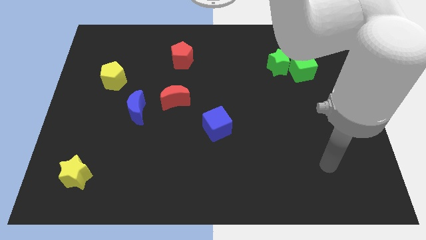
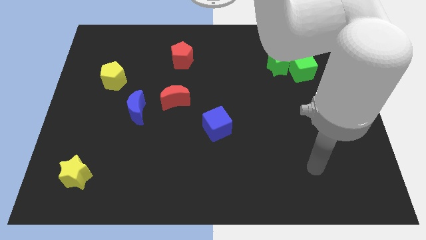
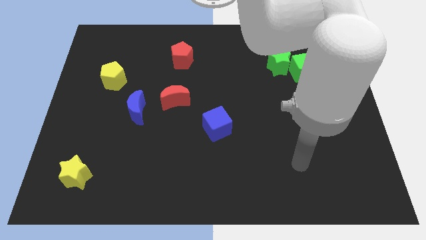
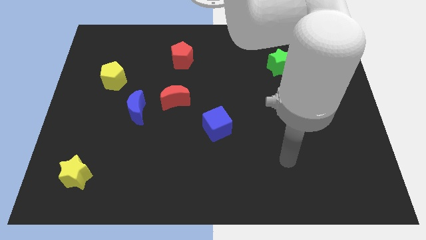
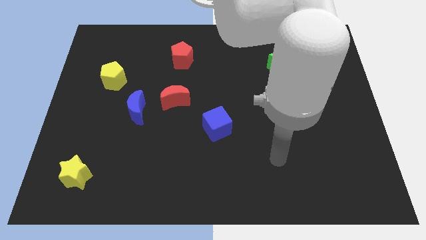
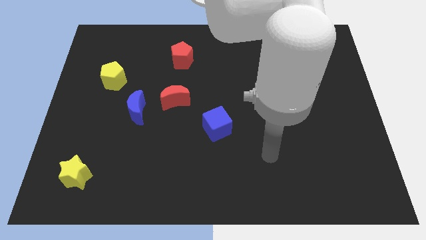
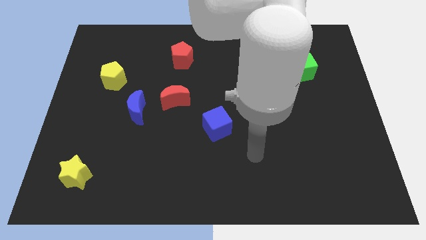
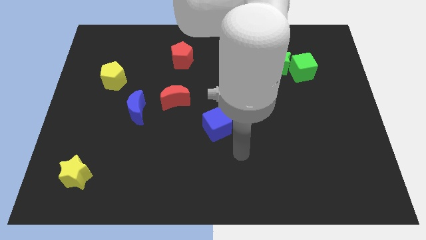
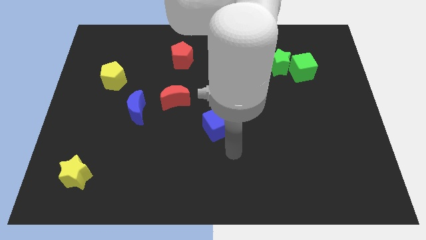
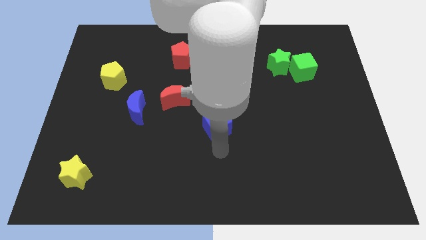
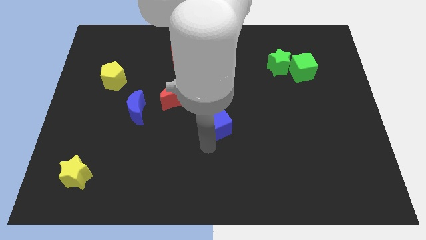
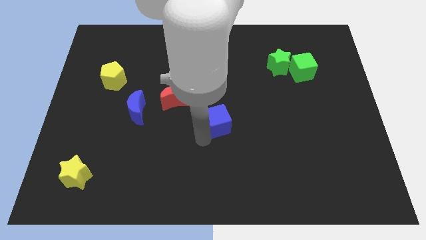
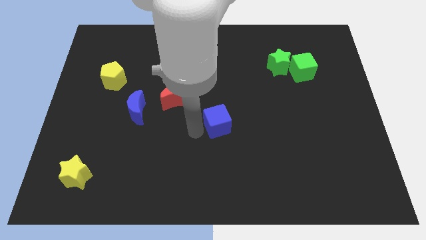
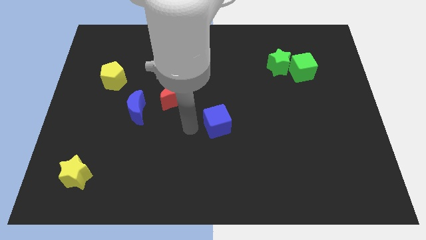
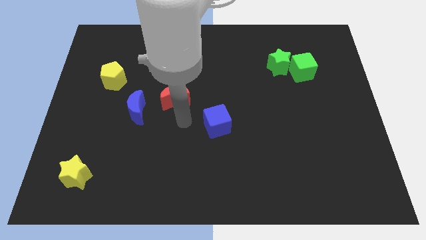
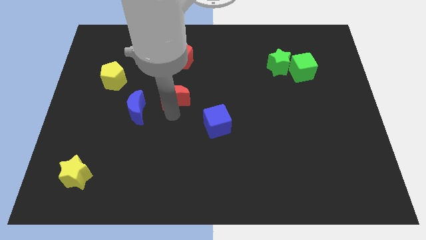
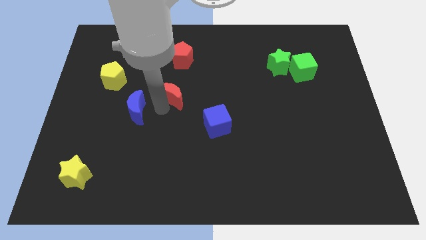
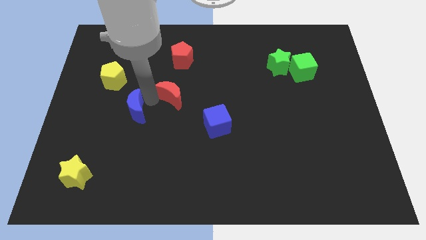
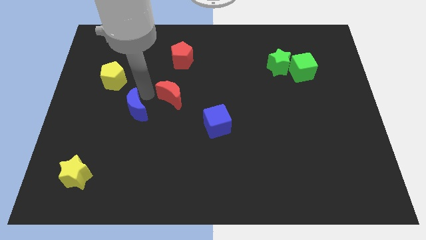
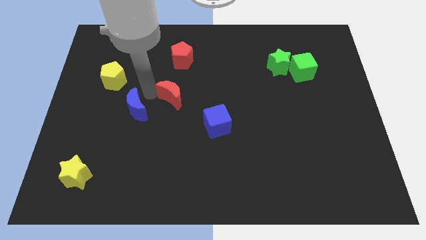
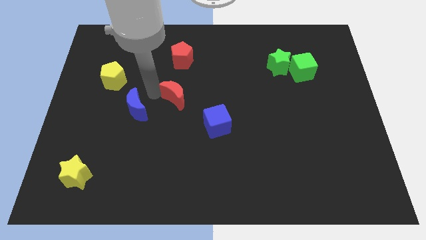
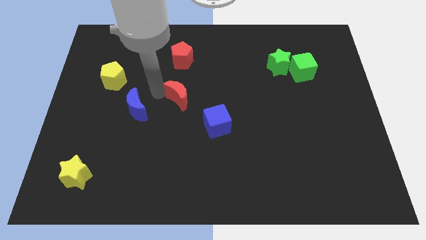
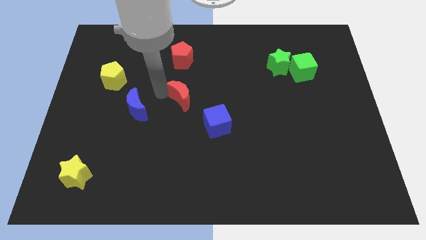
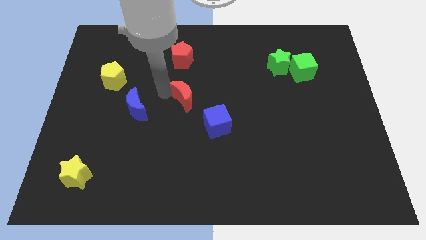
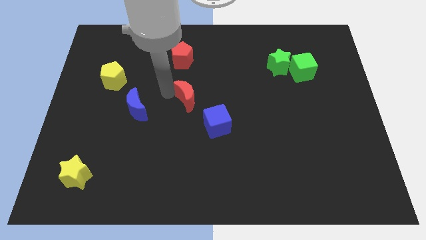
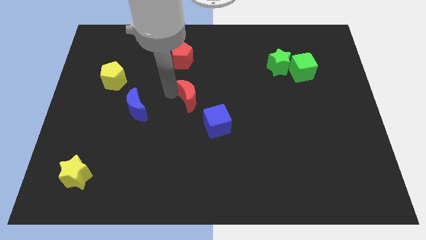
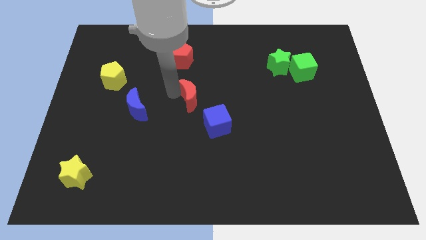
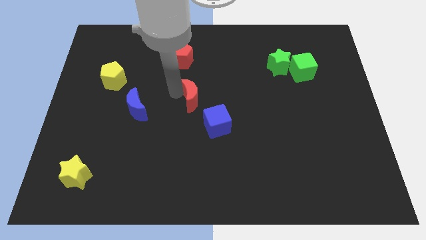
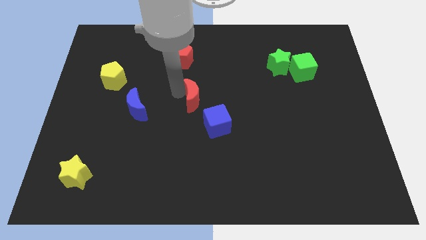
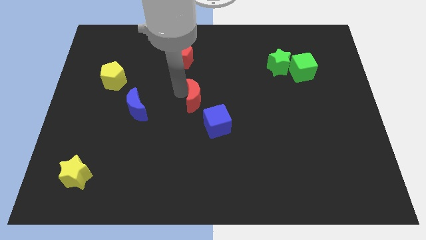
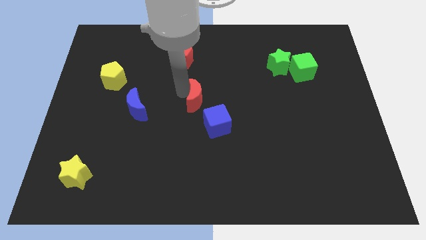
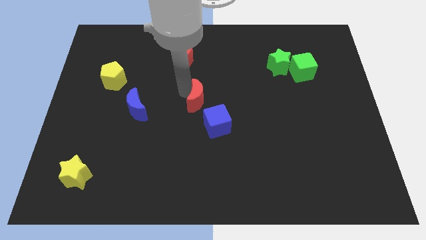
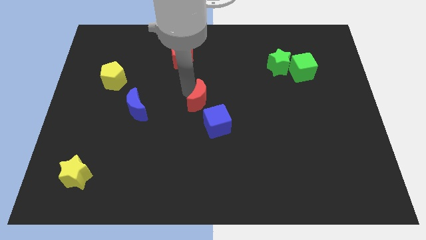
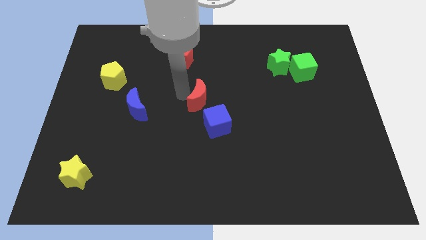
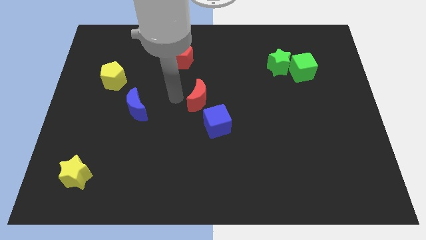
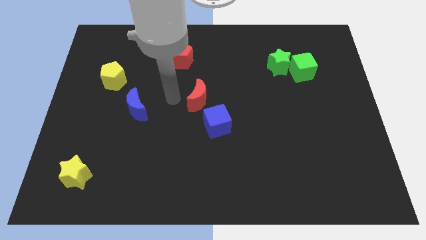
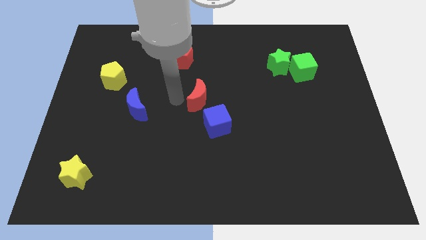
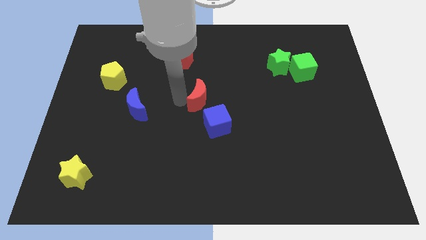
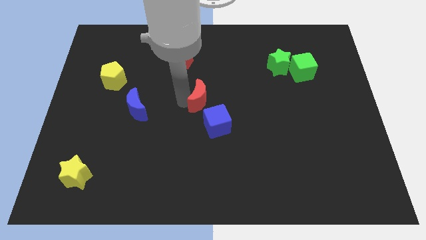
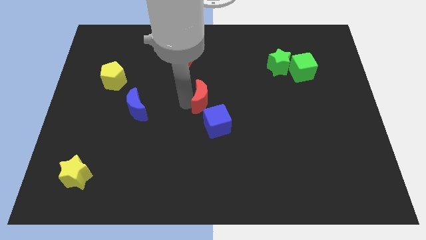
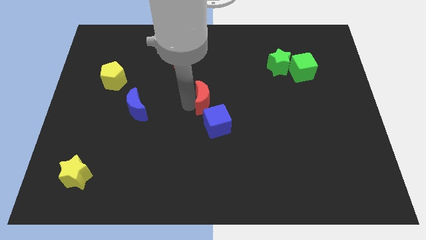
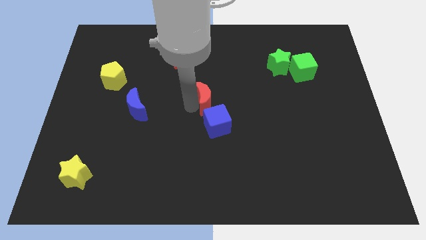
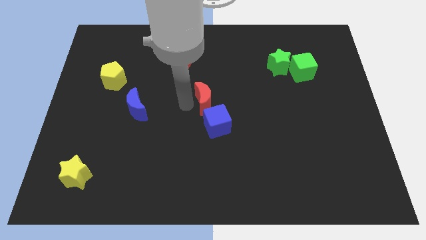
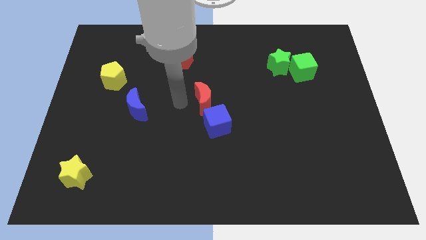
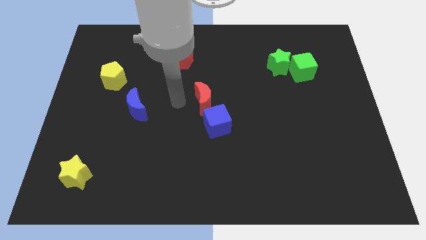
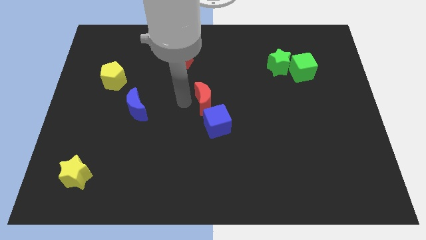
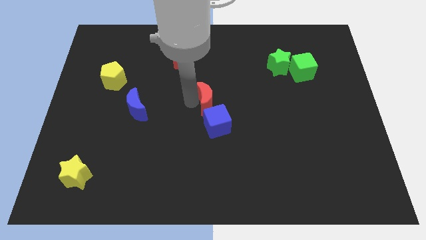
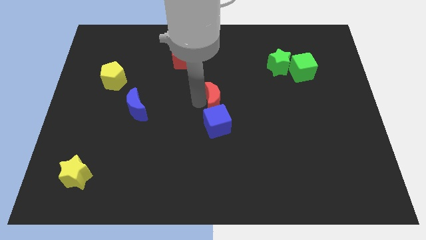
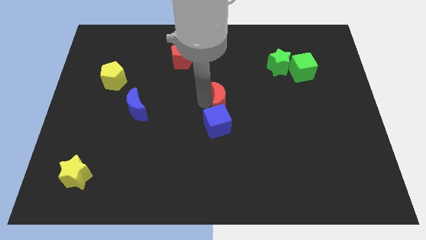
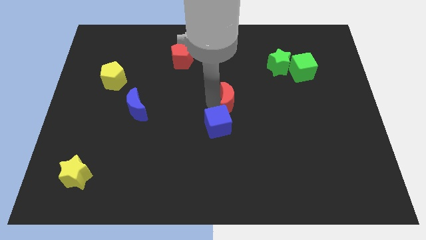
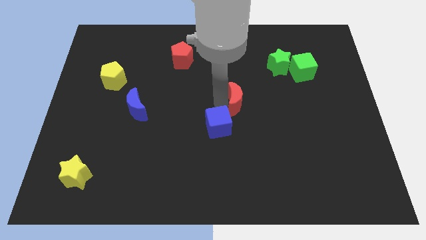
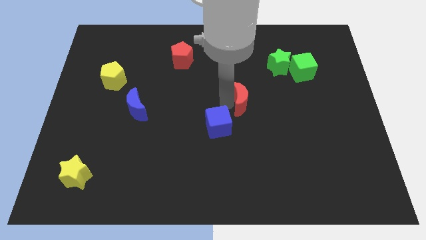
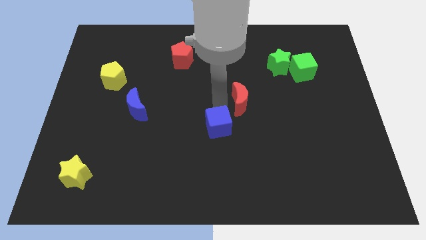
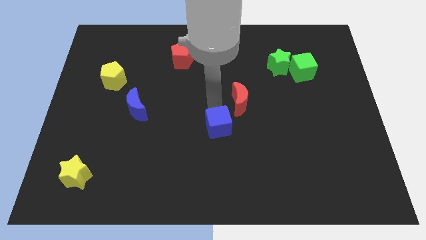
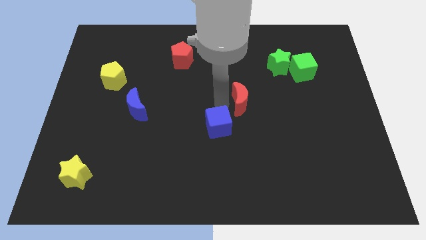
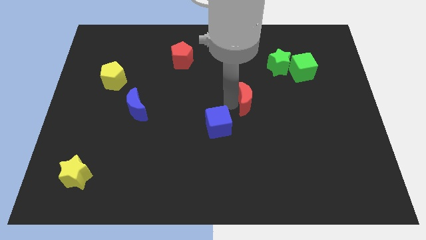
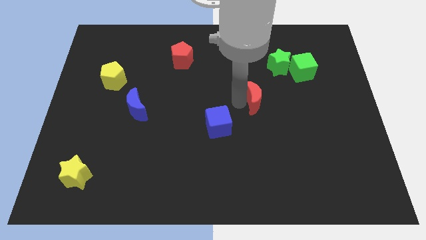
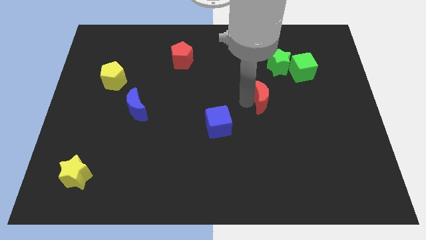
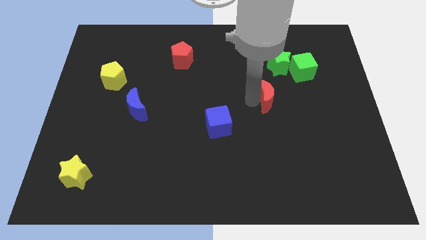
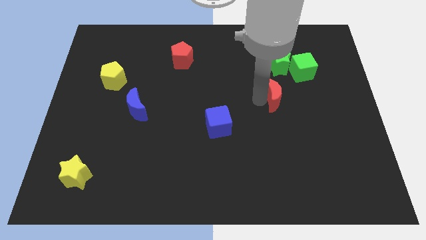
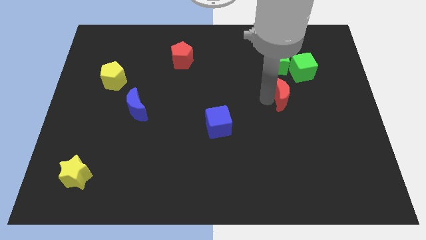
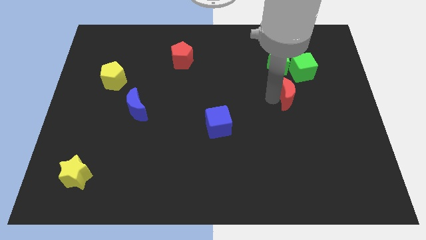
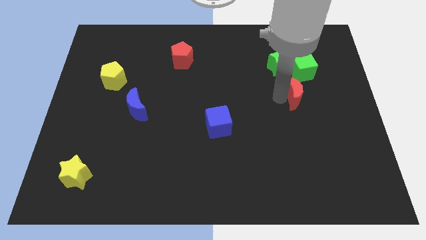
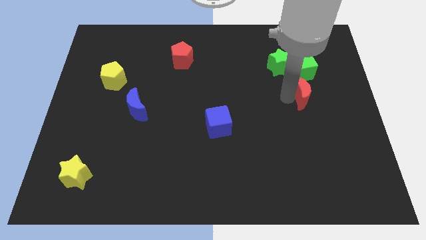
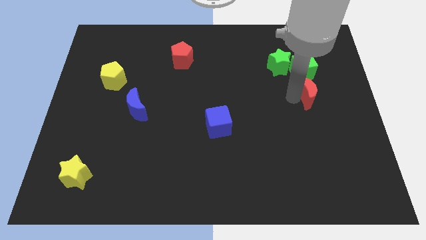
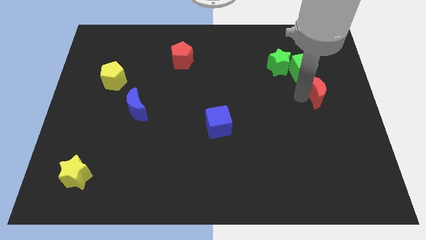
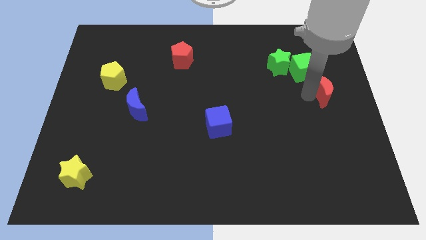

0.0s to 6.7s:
move the red moon to the center right
